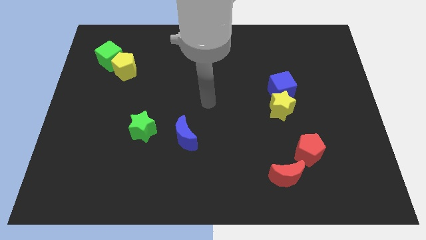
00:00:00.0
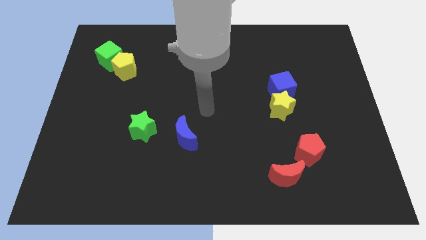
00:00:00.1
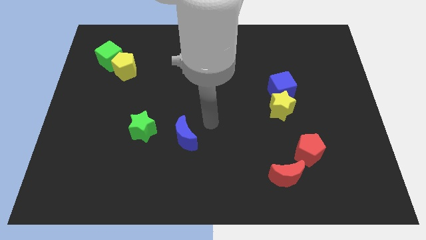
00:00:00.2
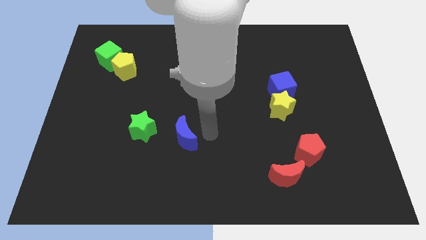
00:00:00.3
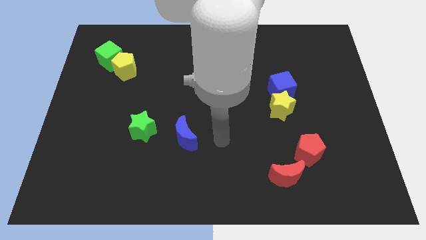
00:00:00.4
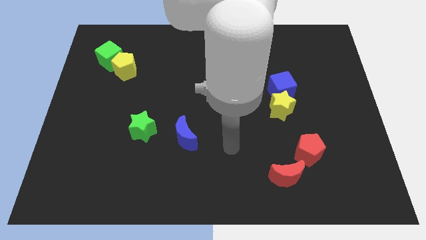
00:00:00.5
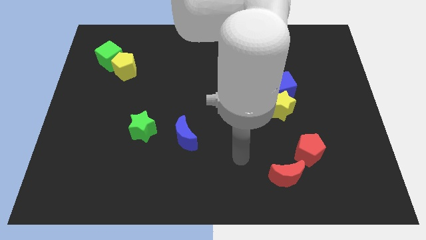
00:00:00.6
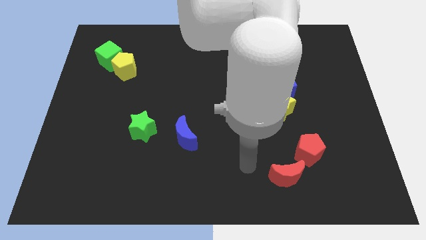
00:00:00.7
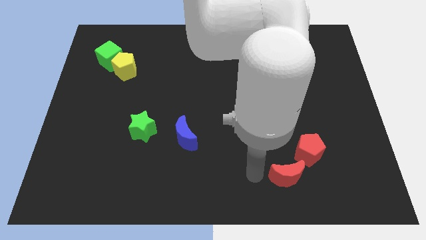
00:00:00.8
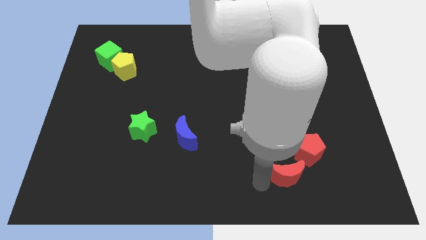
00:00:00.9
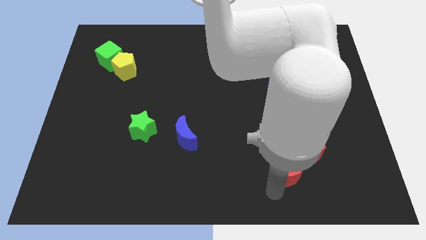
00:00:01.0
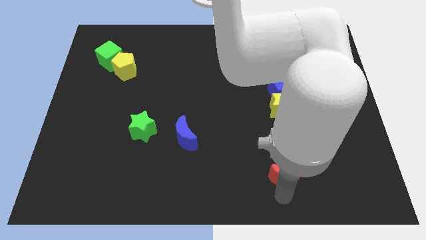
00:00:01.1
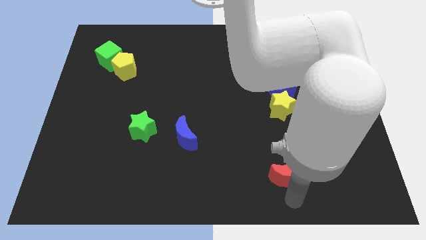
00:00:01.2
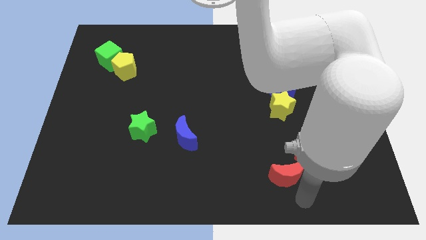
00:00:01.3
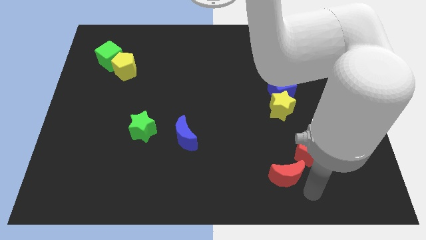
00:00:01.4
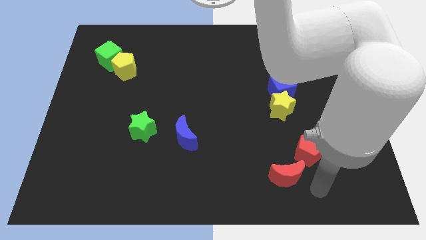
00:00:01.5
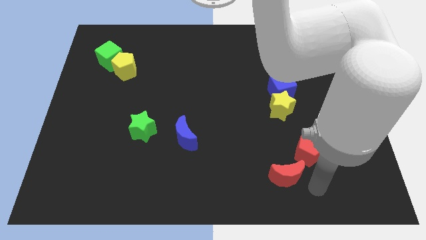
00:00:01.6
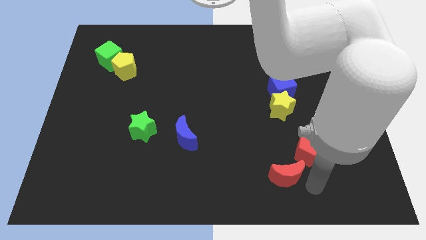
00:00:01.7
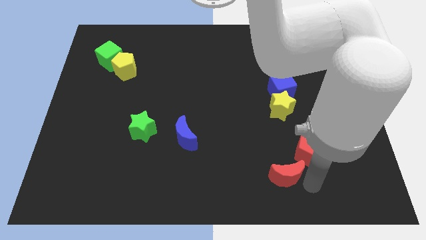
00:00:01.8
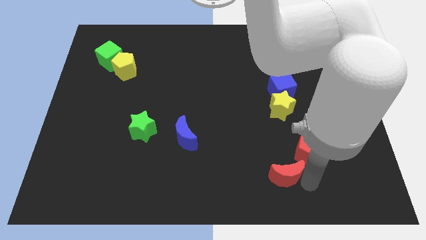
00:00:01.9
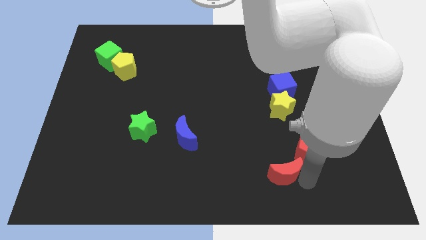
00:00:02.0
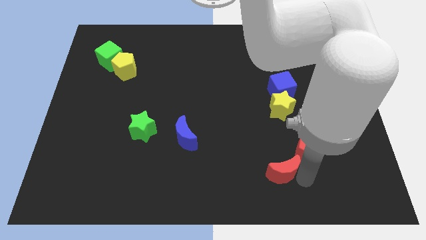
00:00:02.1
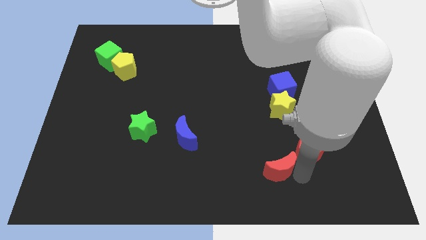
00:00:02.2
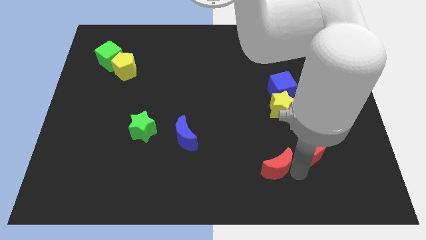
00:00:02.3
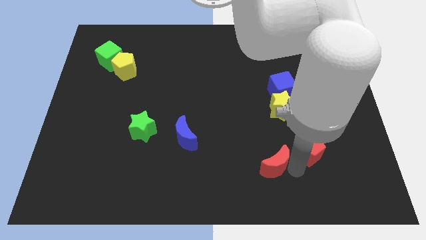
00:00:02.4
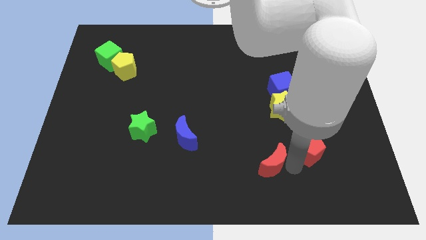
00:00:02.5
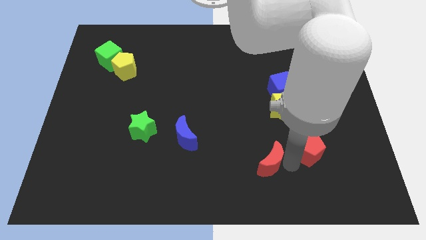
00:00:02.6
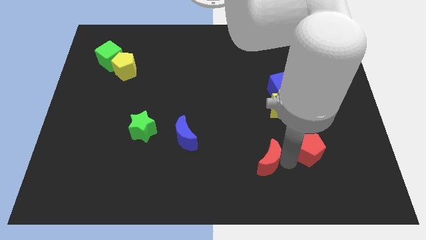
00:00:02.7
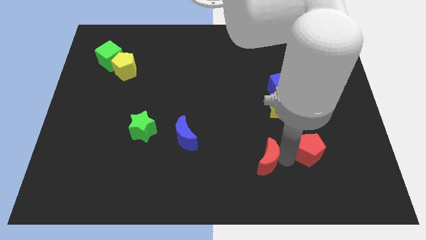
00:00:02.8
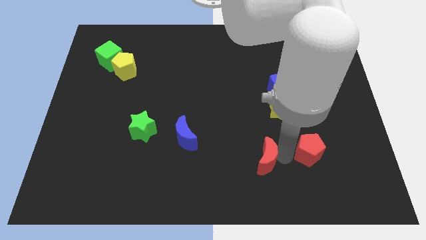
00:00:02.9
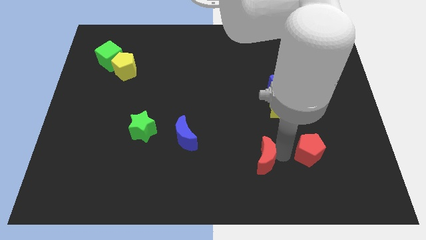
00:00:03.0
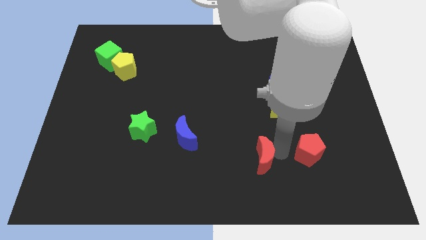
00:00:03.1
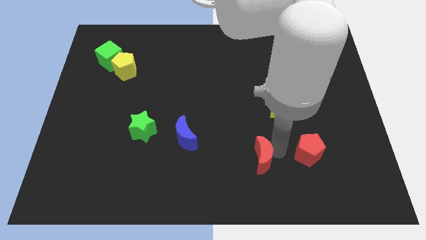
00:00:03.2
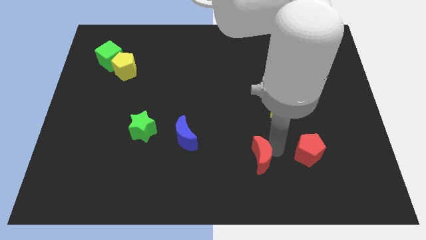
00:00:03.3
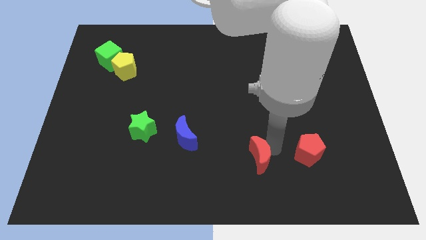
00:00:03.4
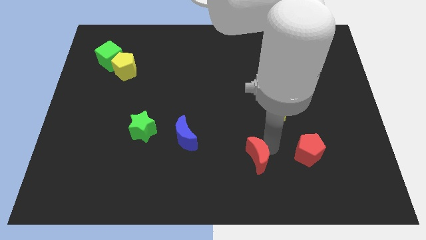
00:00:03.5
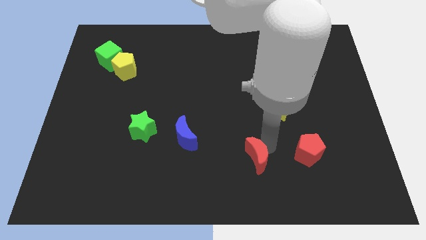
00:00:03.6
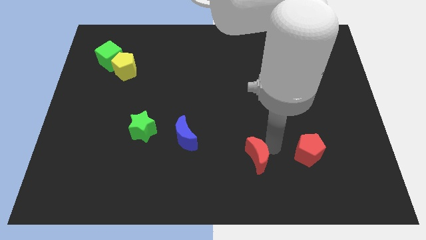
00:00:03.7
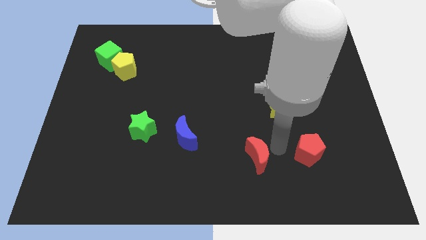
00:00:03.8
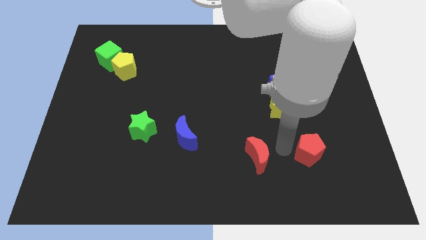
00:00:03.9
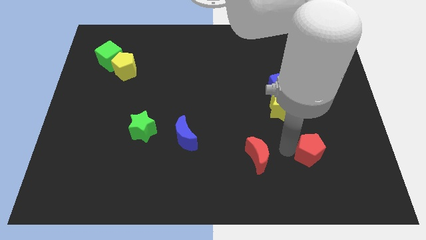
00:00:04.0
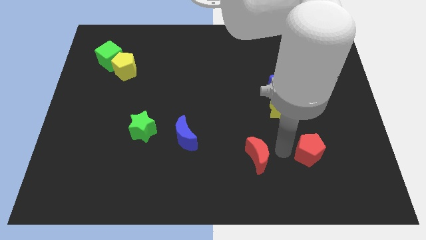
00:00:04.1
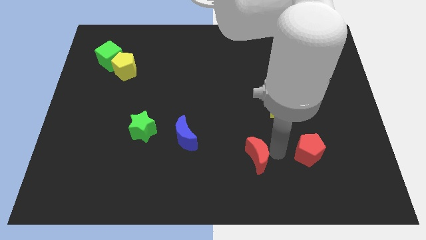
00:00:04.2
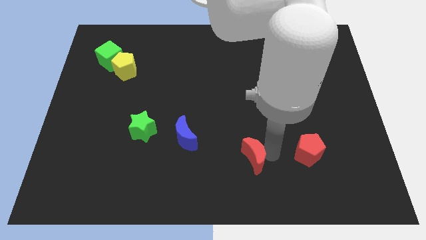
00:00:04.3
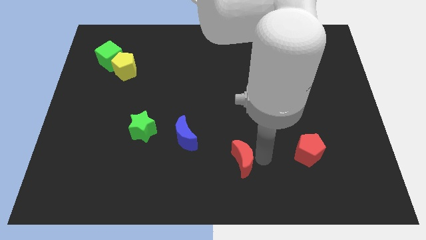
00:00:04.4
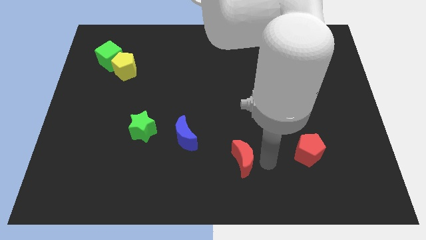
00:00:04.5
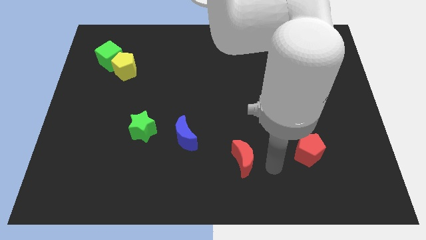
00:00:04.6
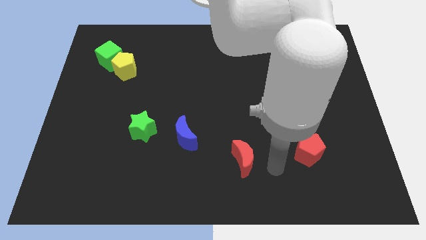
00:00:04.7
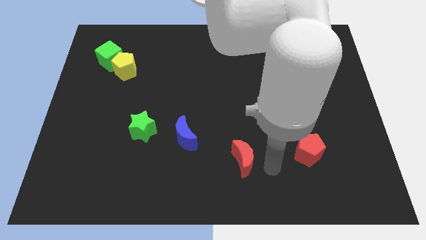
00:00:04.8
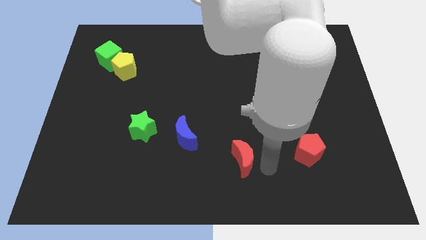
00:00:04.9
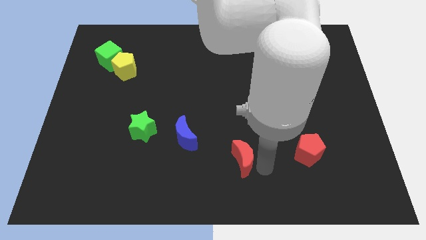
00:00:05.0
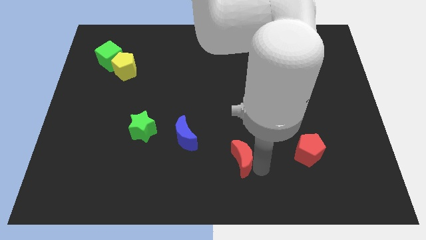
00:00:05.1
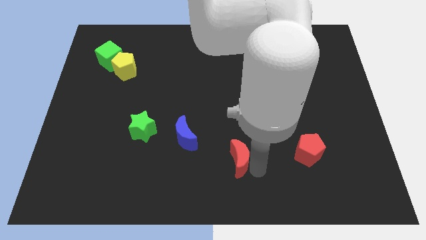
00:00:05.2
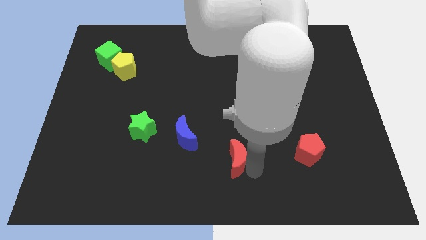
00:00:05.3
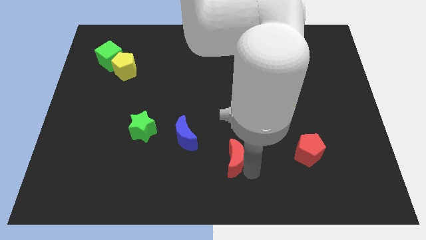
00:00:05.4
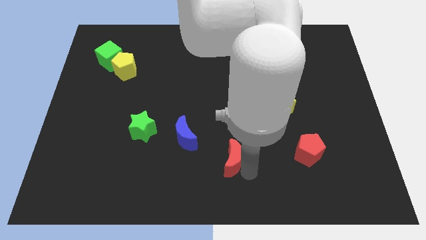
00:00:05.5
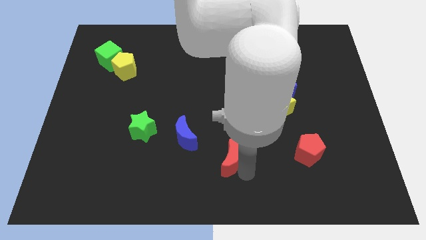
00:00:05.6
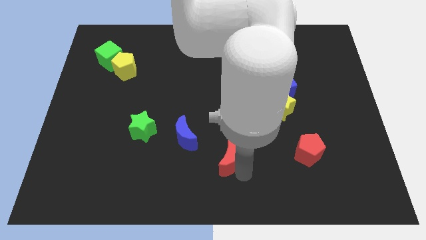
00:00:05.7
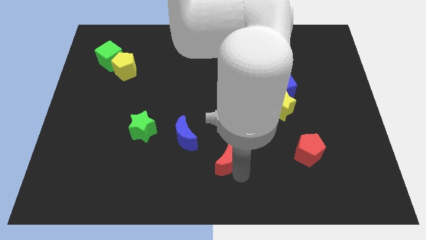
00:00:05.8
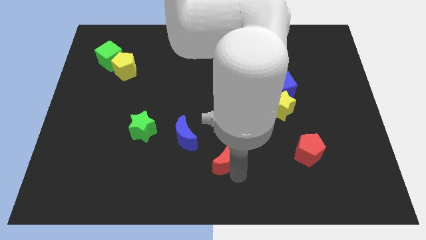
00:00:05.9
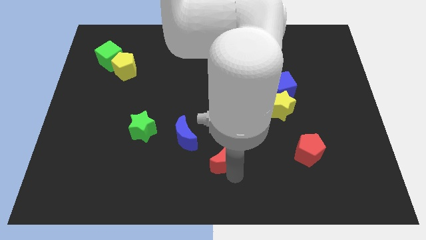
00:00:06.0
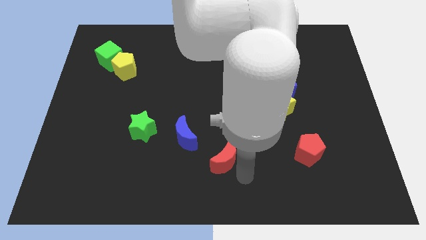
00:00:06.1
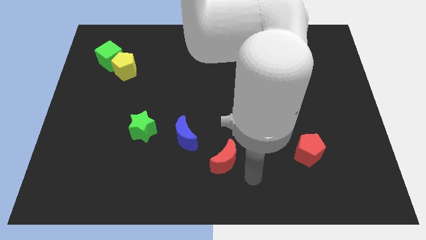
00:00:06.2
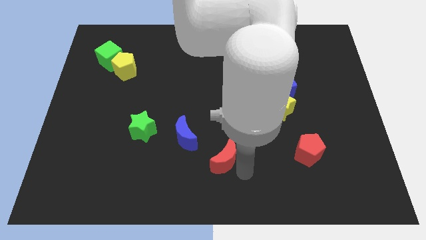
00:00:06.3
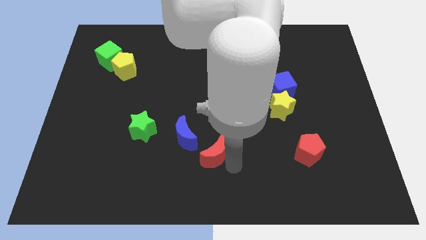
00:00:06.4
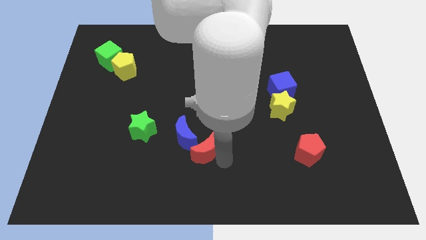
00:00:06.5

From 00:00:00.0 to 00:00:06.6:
push the red moon towards the blue moon

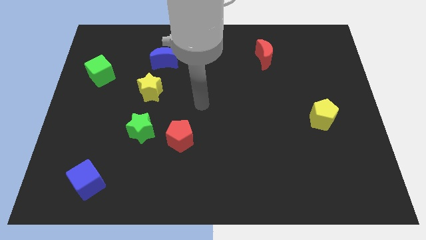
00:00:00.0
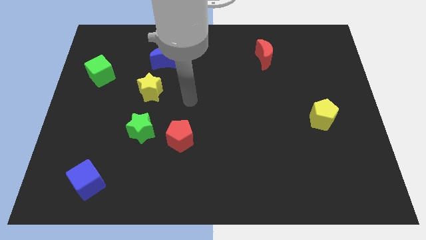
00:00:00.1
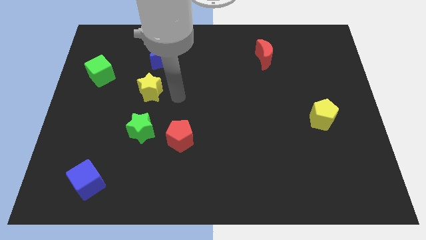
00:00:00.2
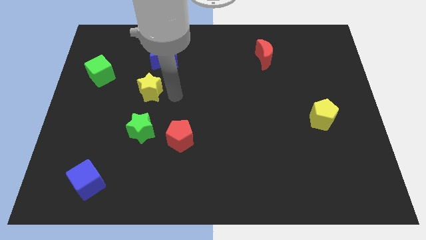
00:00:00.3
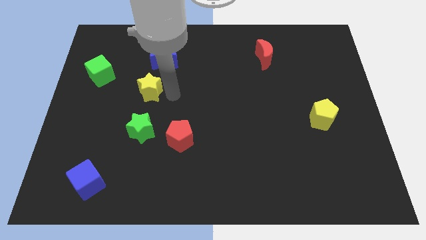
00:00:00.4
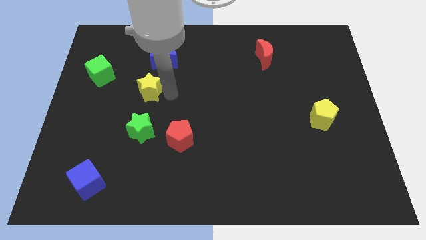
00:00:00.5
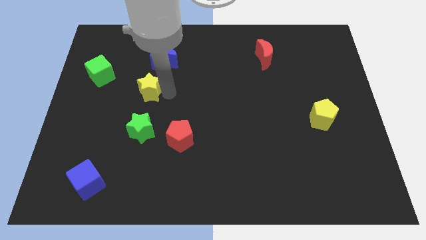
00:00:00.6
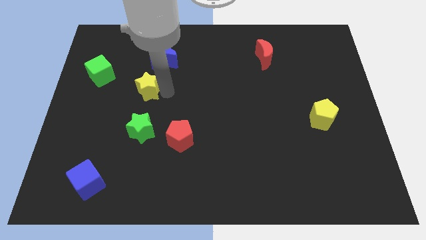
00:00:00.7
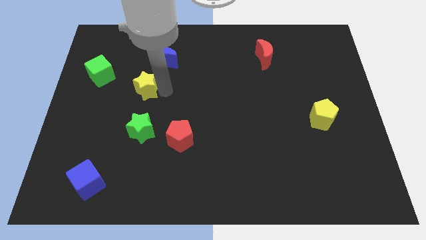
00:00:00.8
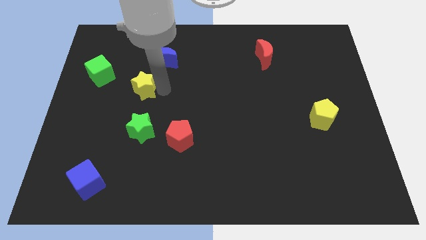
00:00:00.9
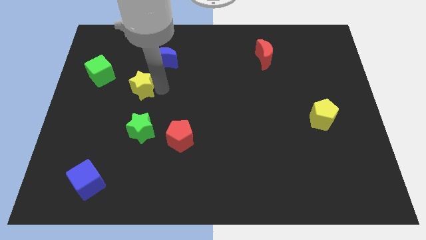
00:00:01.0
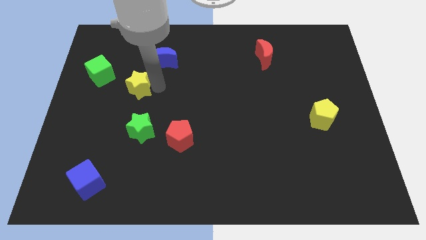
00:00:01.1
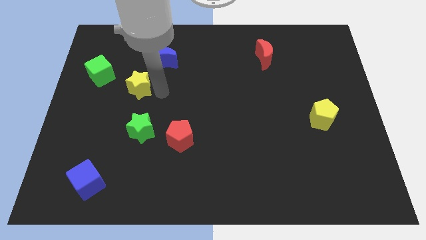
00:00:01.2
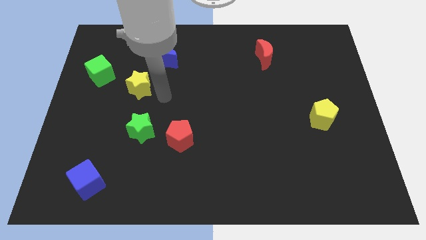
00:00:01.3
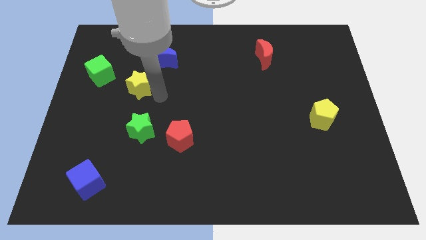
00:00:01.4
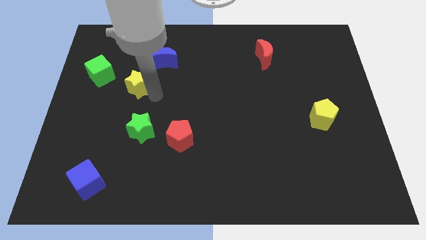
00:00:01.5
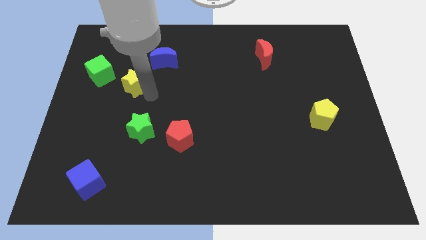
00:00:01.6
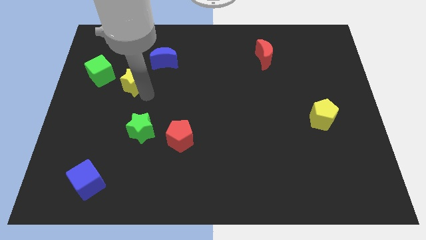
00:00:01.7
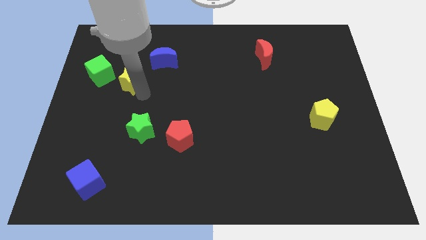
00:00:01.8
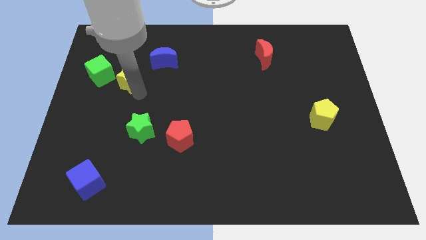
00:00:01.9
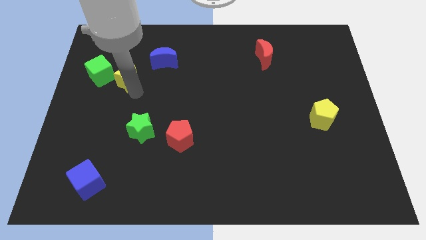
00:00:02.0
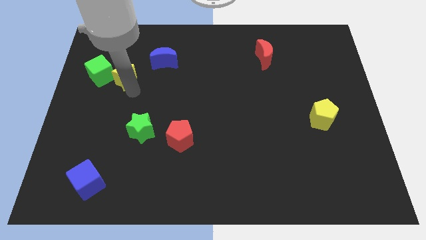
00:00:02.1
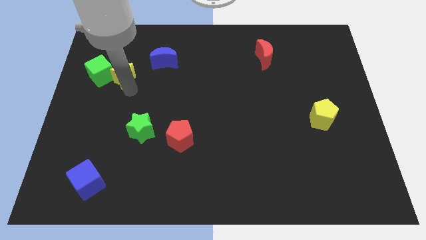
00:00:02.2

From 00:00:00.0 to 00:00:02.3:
push the yellow star close to the green cube
